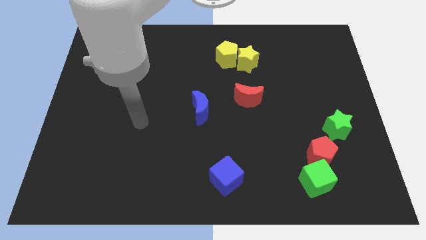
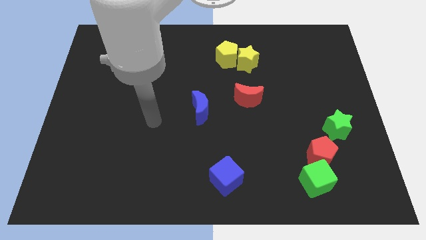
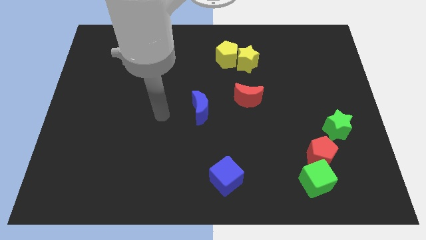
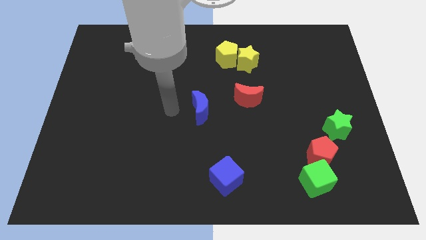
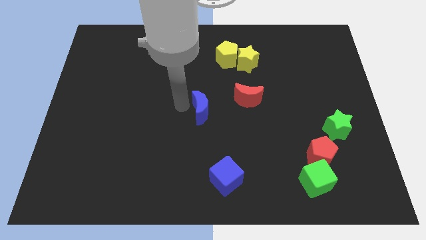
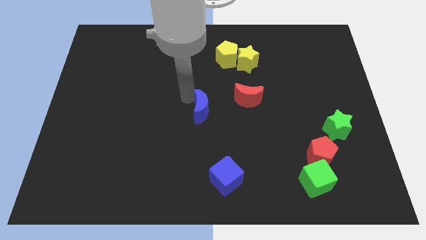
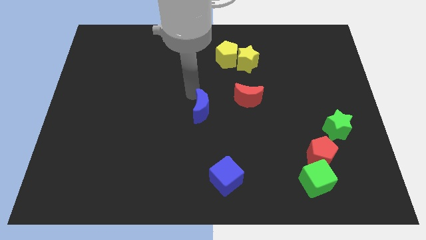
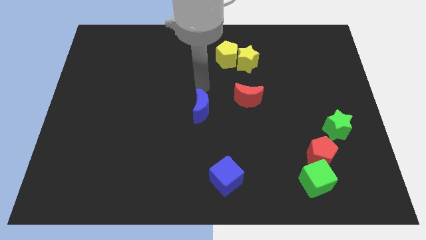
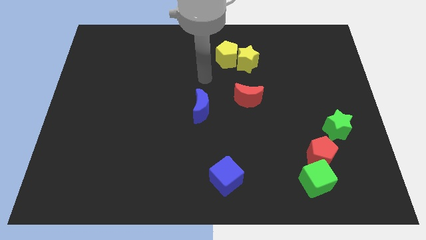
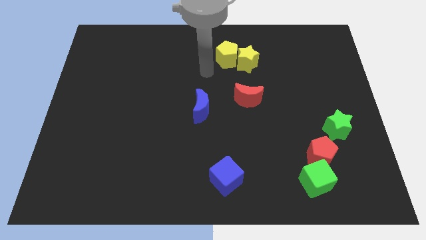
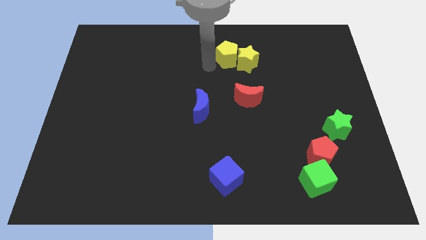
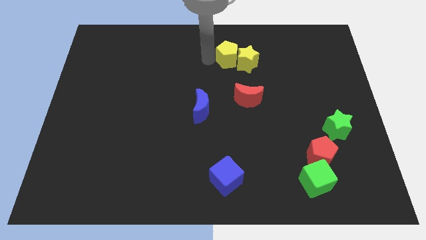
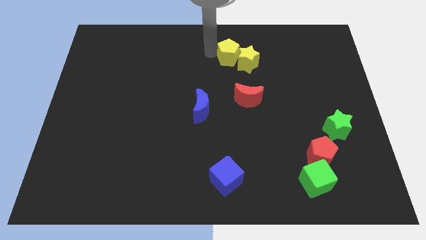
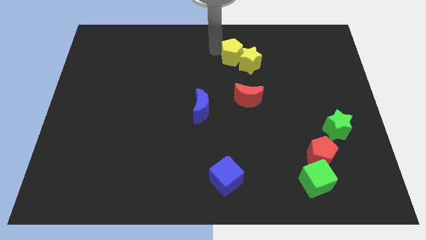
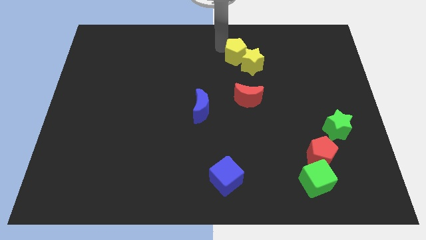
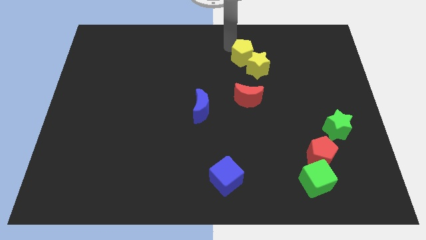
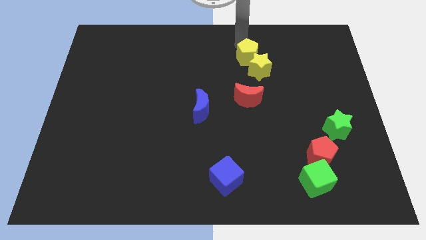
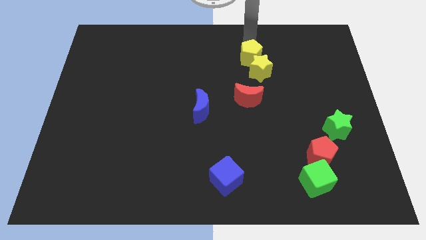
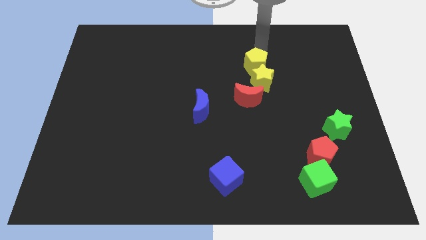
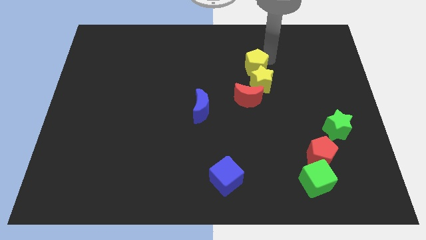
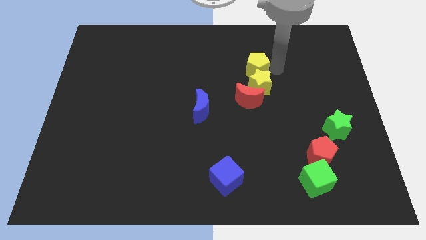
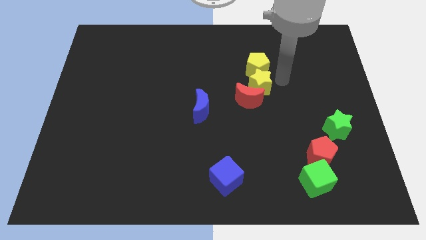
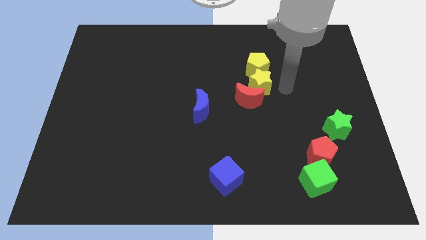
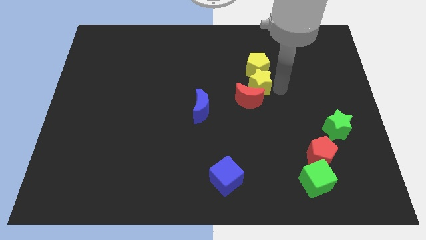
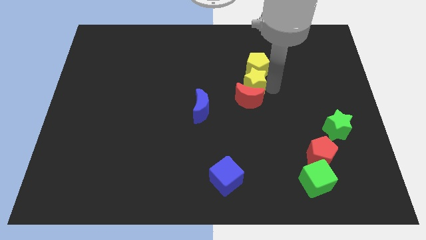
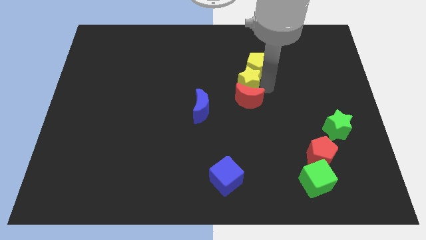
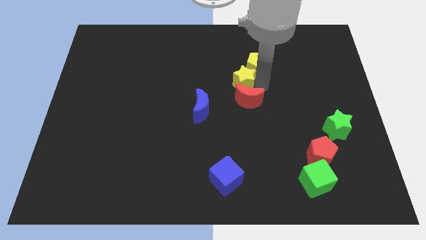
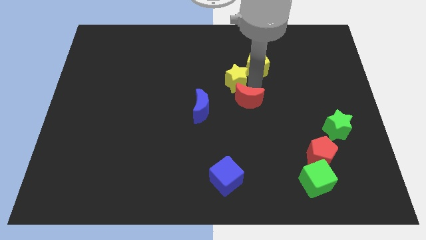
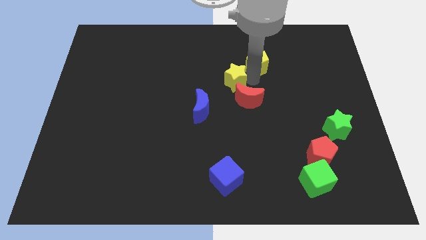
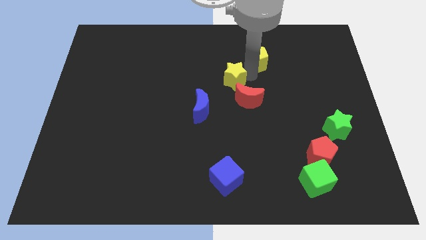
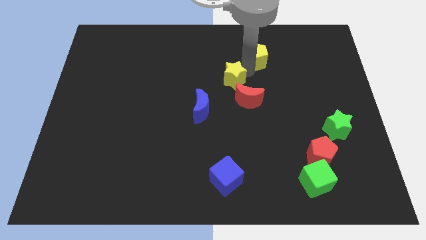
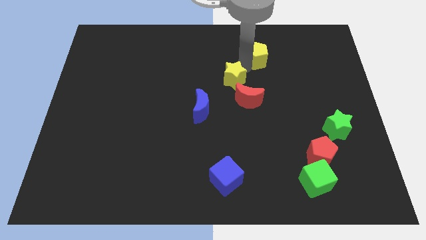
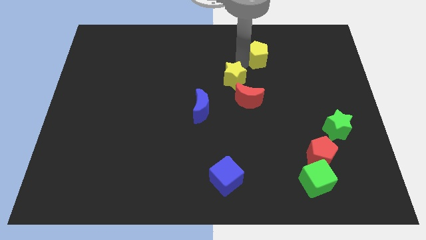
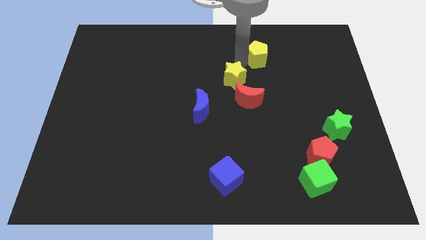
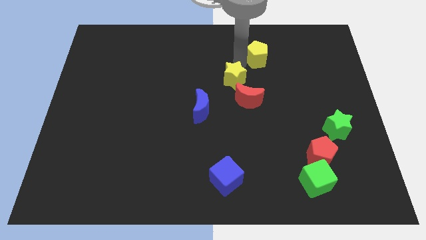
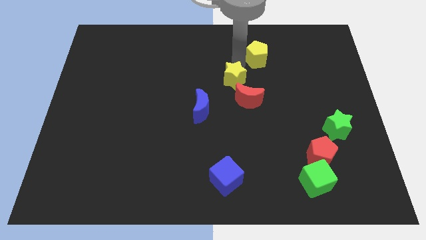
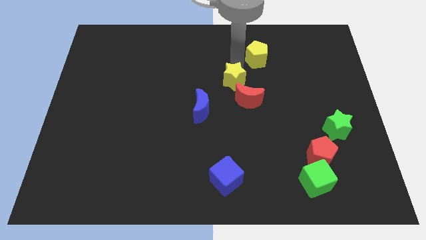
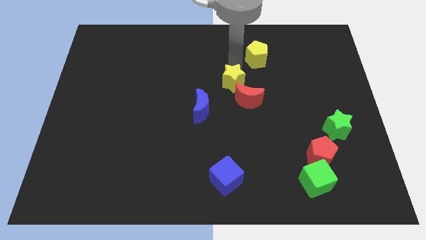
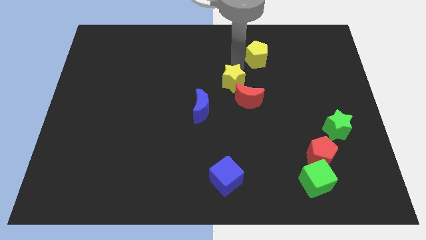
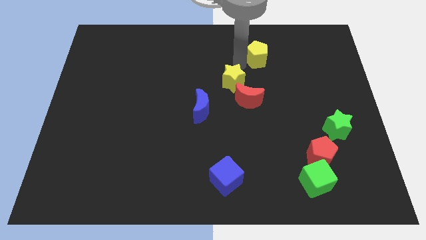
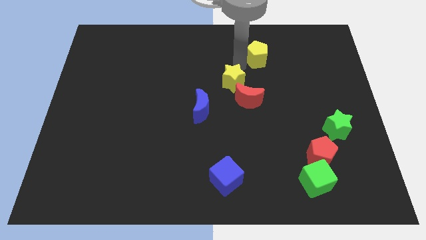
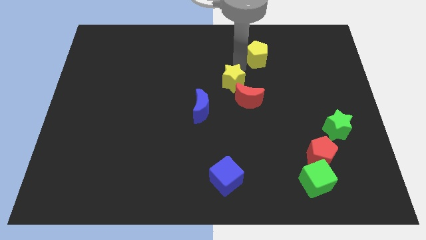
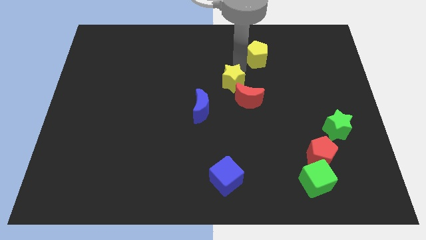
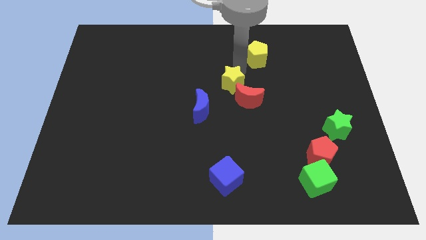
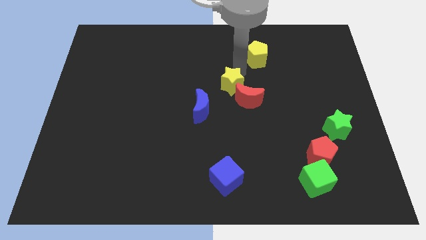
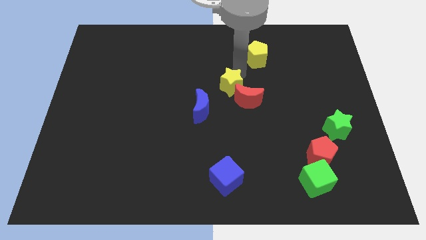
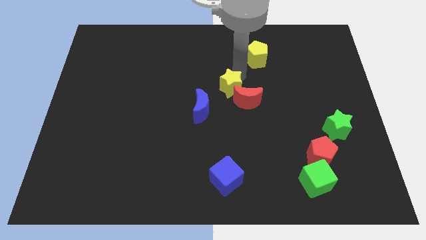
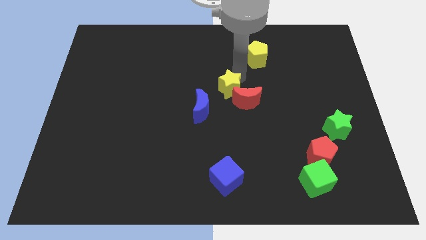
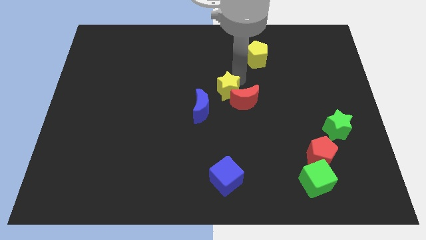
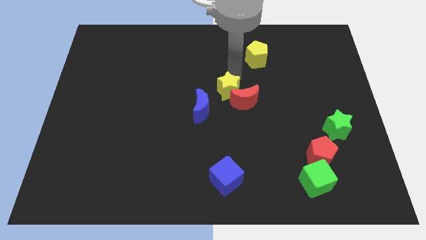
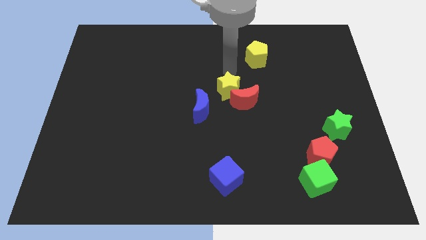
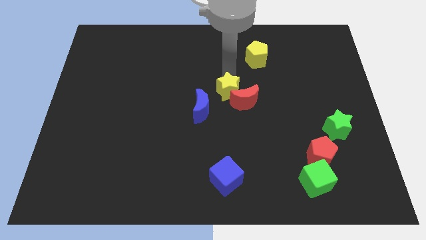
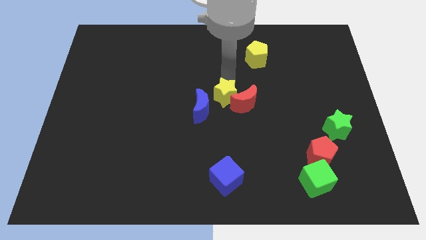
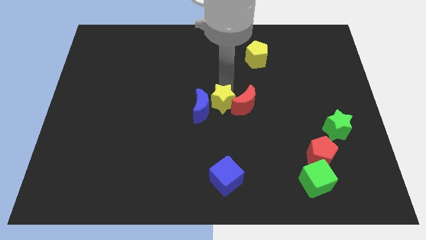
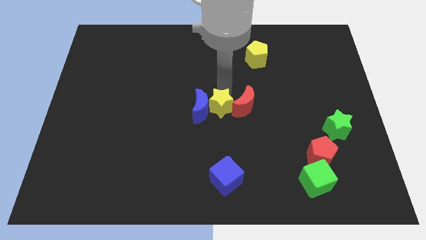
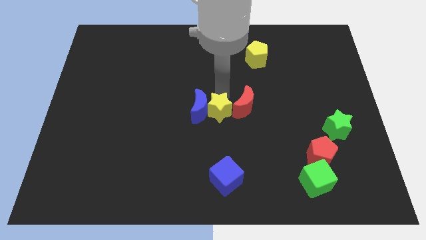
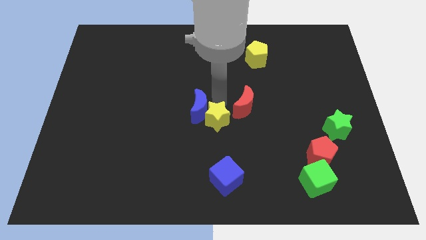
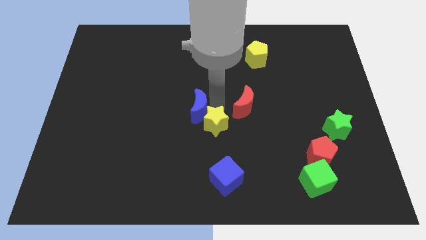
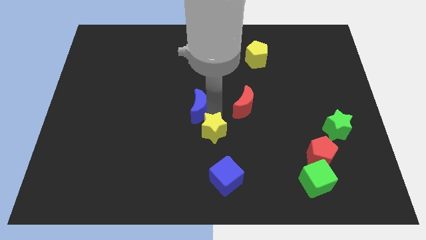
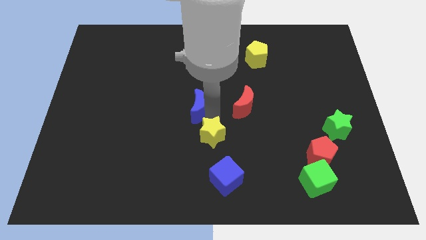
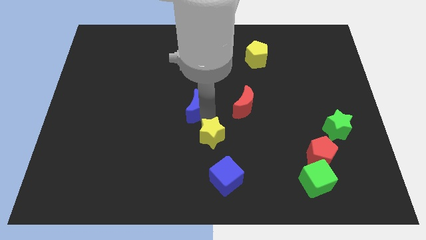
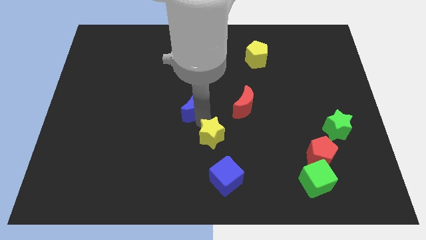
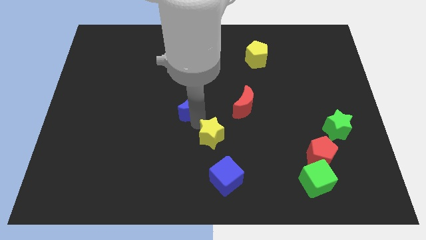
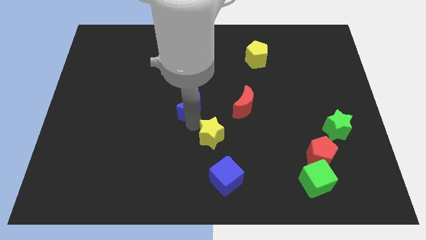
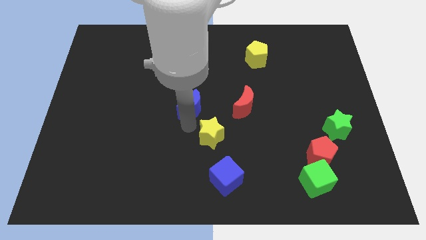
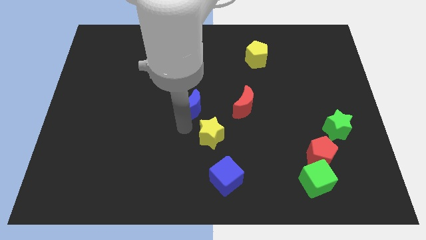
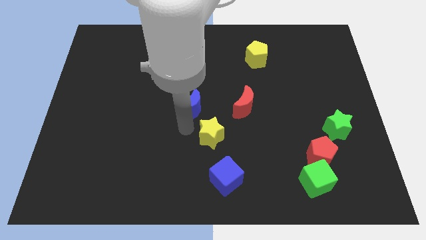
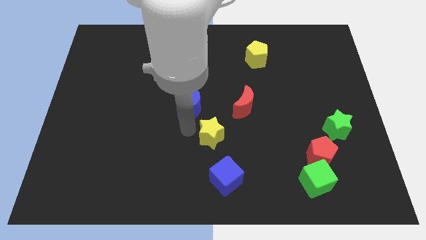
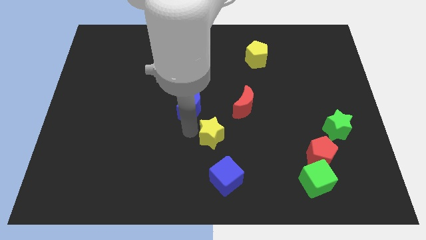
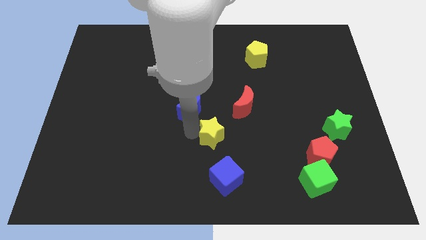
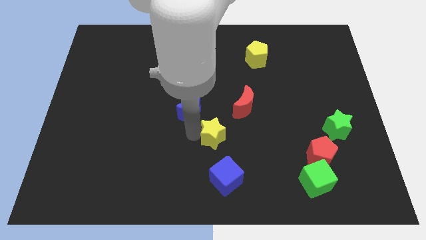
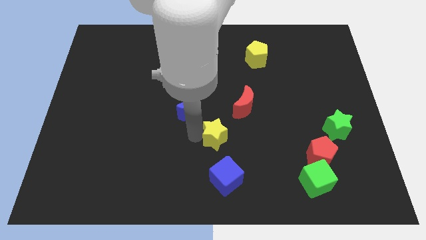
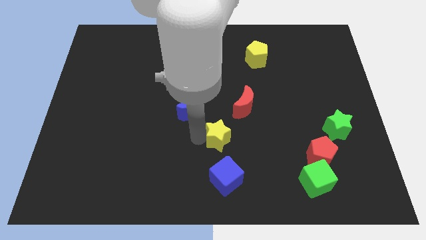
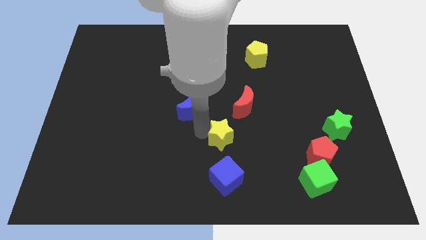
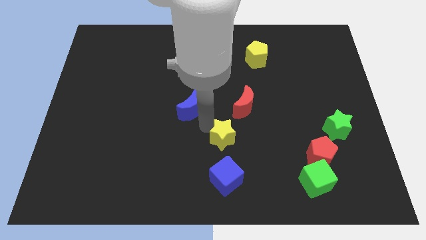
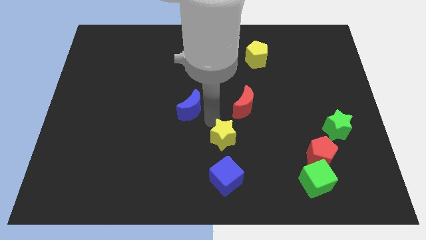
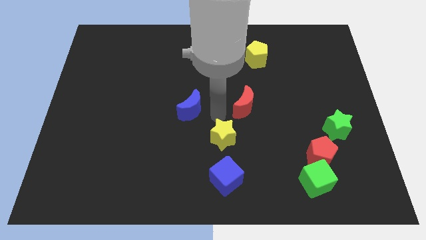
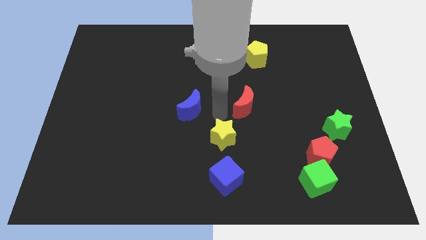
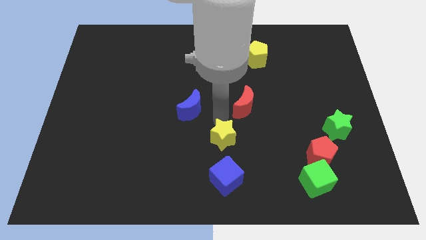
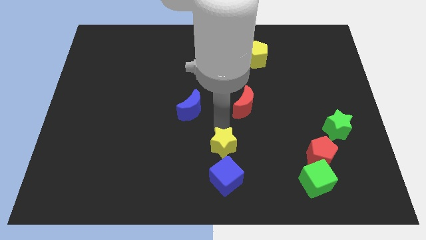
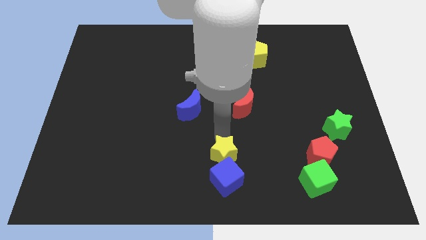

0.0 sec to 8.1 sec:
put the yellow star close to the blue cube
